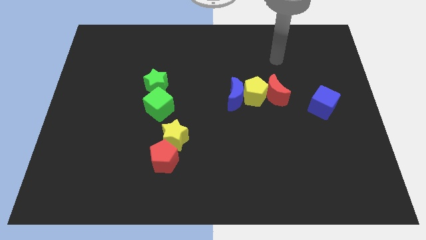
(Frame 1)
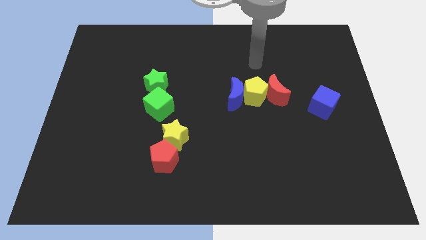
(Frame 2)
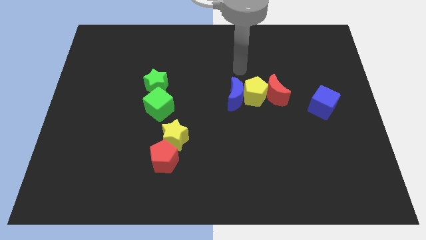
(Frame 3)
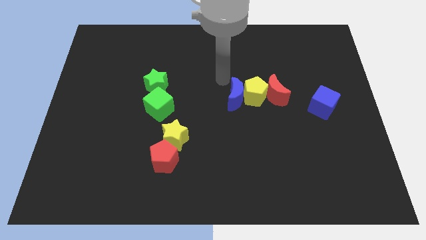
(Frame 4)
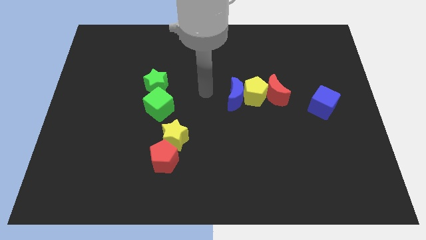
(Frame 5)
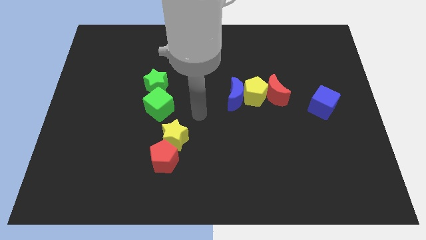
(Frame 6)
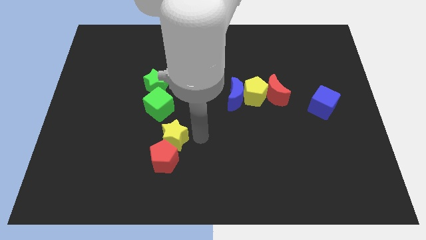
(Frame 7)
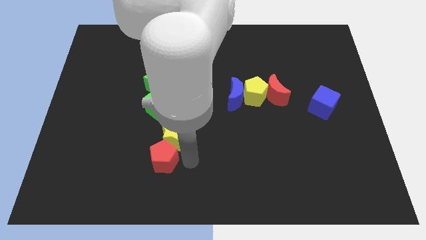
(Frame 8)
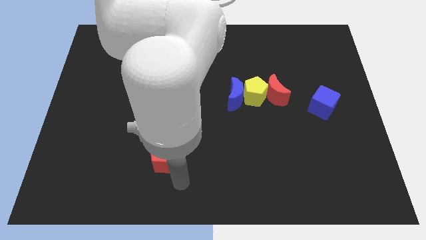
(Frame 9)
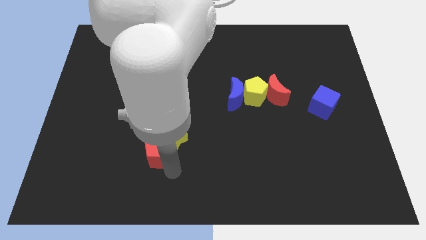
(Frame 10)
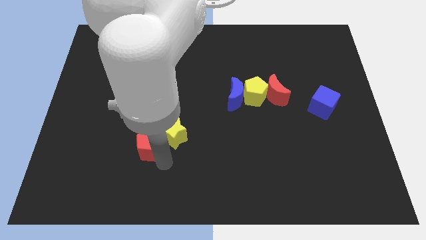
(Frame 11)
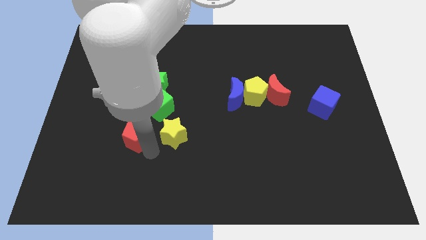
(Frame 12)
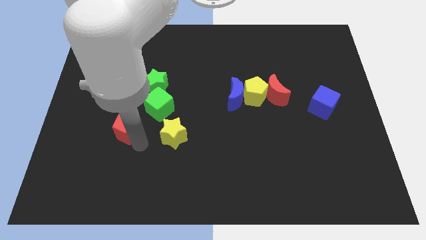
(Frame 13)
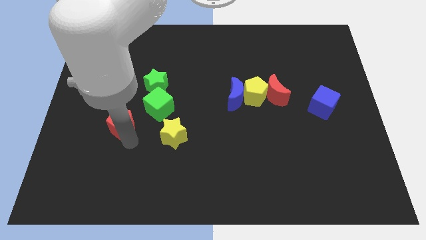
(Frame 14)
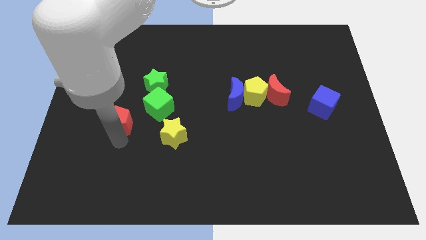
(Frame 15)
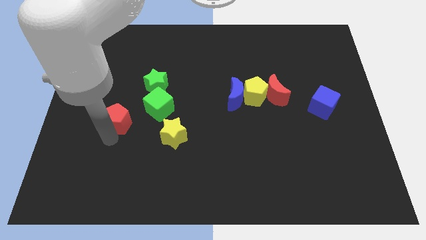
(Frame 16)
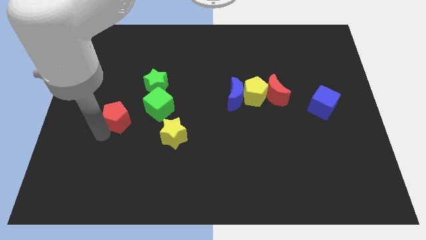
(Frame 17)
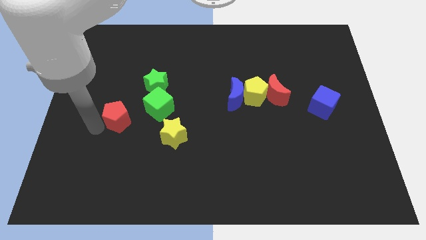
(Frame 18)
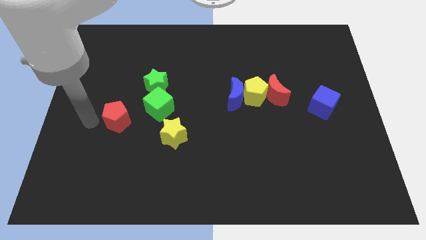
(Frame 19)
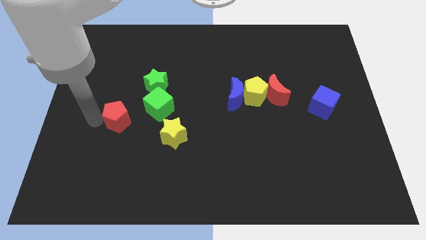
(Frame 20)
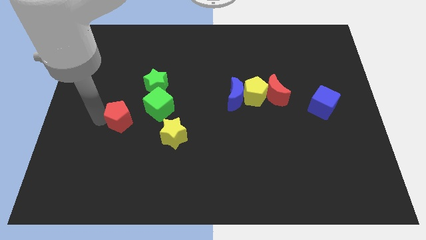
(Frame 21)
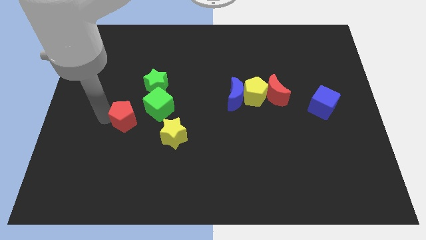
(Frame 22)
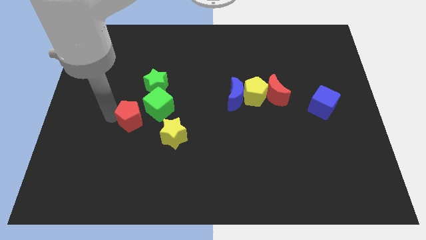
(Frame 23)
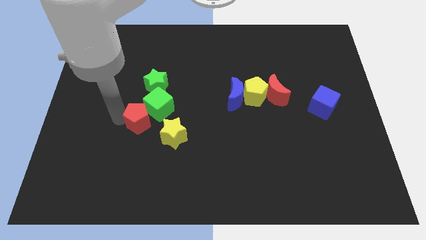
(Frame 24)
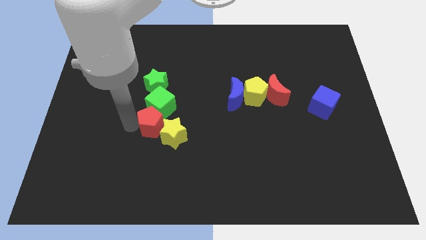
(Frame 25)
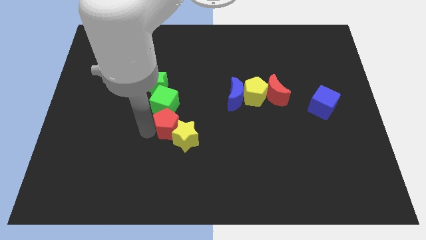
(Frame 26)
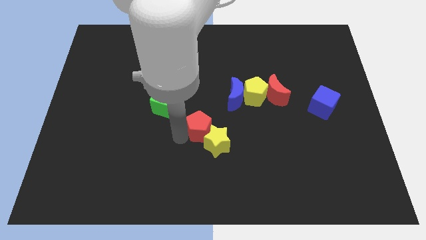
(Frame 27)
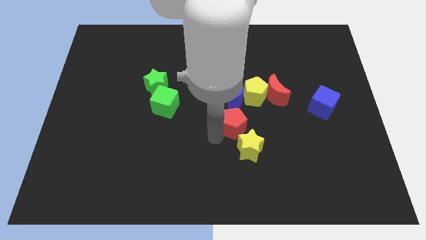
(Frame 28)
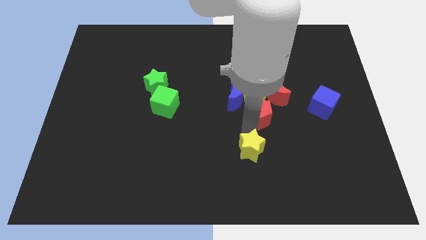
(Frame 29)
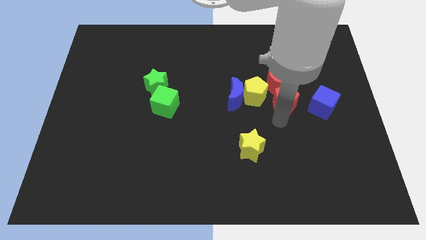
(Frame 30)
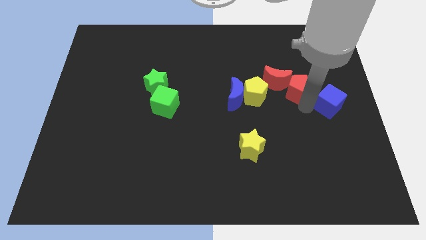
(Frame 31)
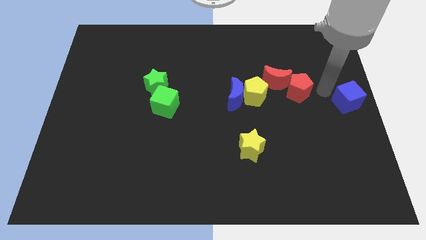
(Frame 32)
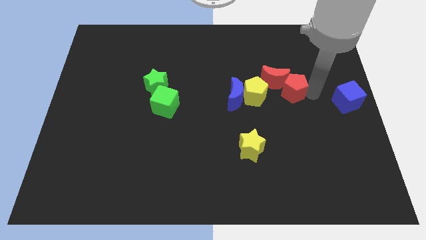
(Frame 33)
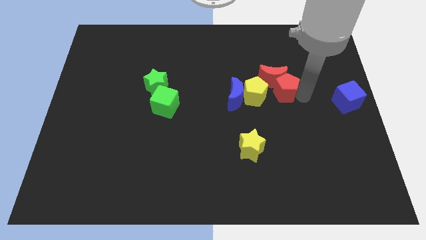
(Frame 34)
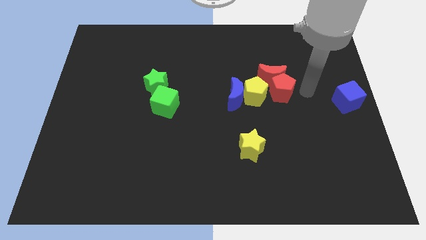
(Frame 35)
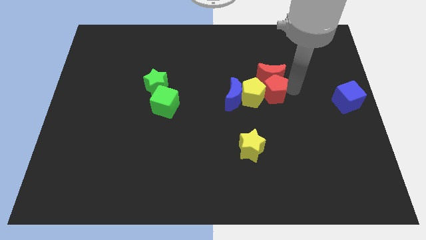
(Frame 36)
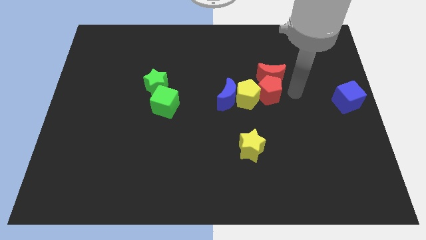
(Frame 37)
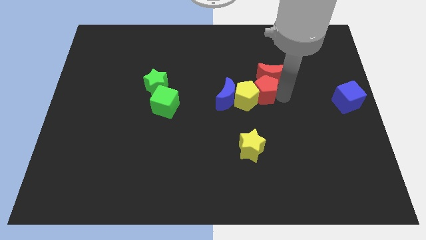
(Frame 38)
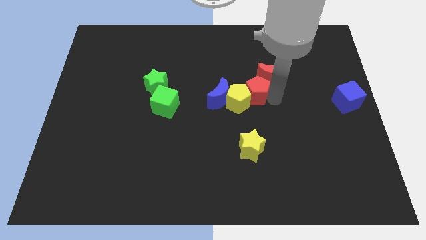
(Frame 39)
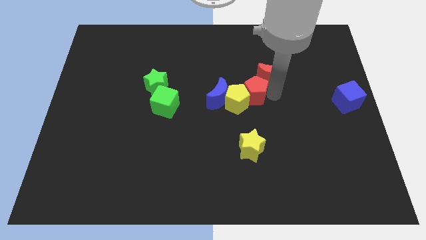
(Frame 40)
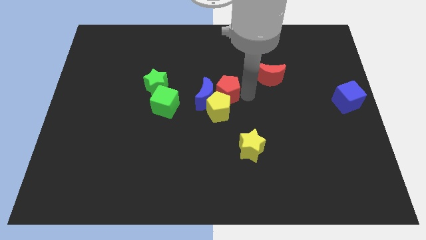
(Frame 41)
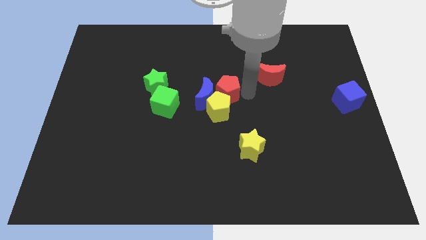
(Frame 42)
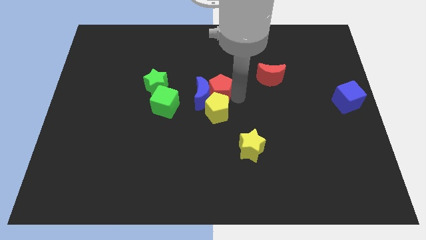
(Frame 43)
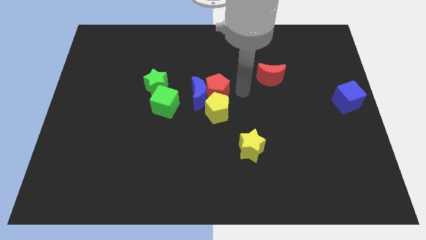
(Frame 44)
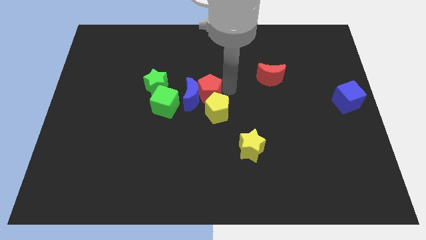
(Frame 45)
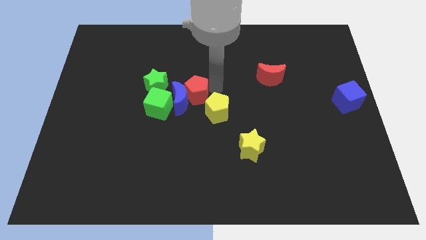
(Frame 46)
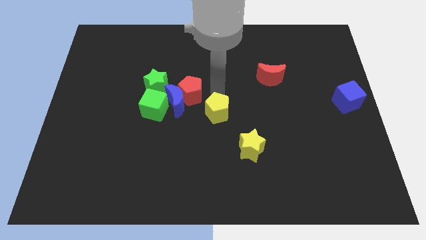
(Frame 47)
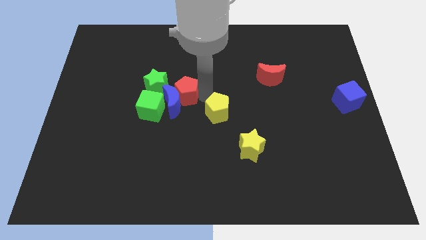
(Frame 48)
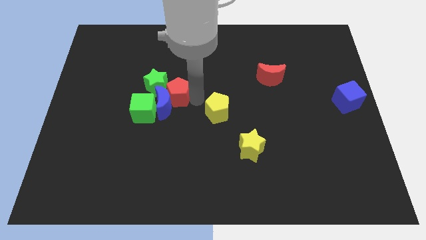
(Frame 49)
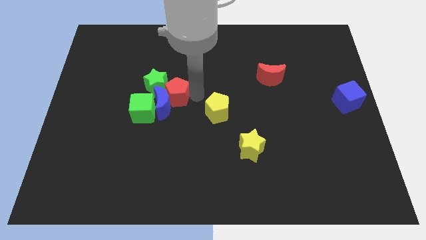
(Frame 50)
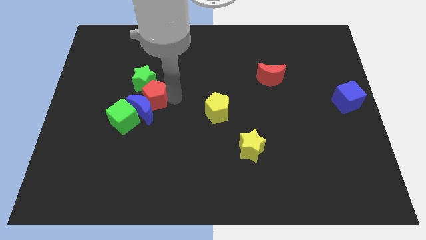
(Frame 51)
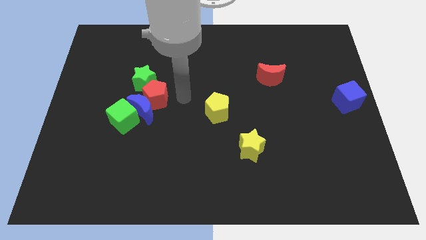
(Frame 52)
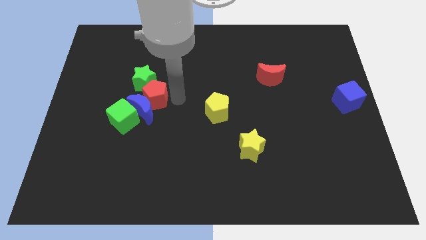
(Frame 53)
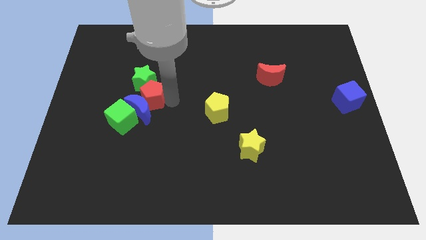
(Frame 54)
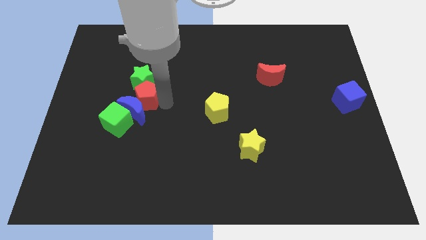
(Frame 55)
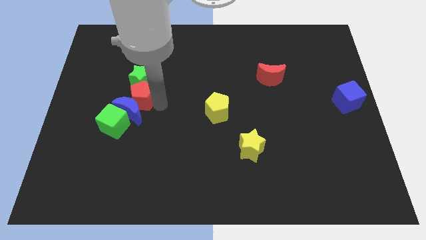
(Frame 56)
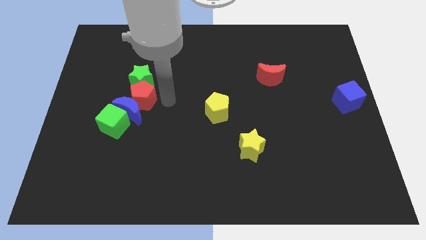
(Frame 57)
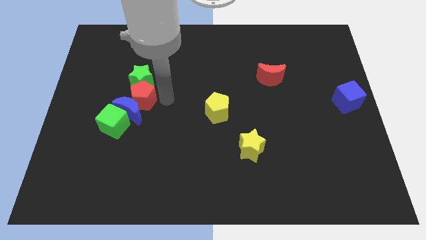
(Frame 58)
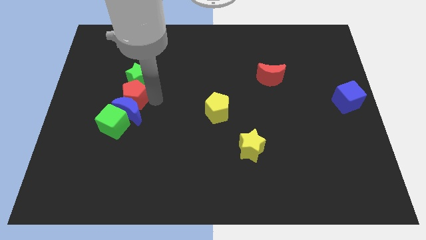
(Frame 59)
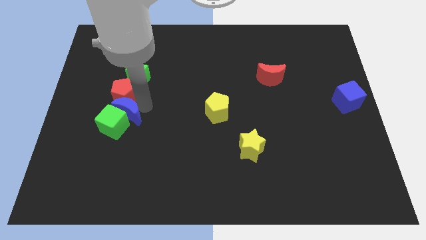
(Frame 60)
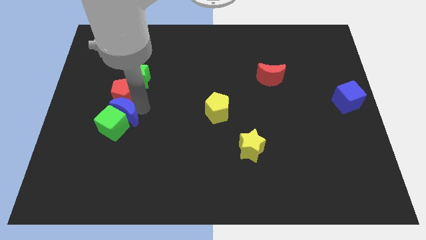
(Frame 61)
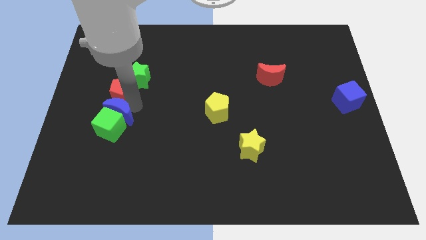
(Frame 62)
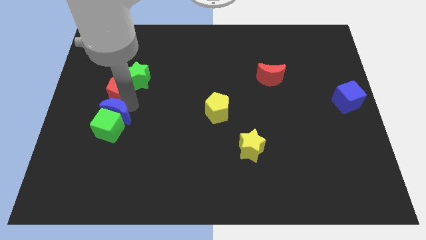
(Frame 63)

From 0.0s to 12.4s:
slide the red pentagon to the left side of the green star
